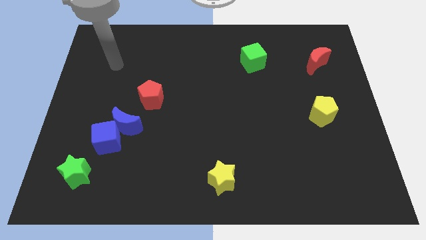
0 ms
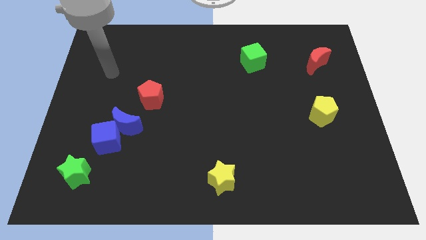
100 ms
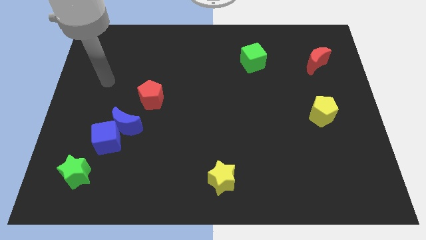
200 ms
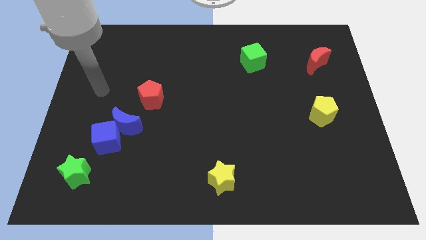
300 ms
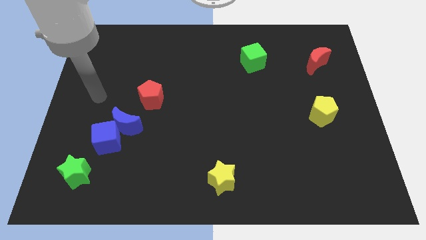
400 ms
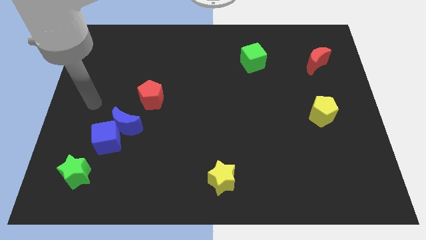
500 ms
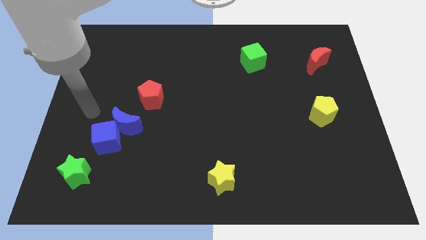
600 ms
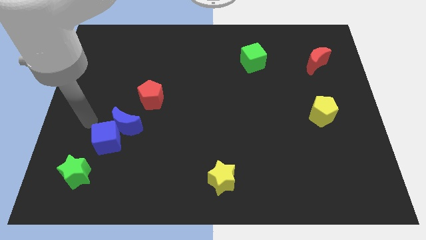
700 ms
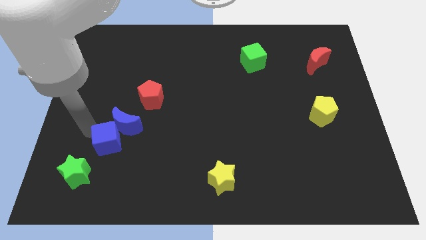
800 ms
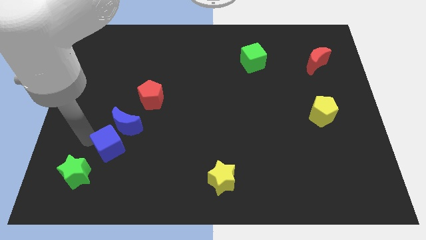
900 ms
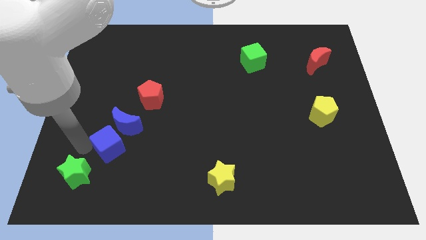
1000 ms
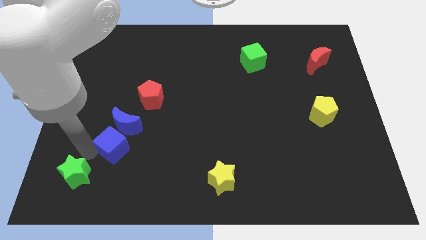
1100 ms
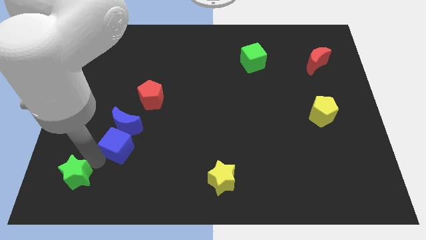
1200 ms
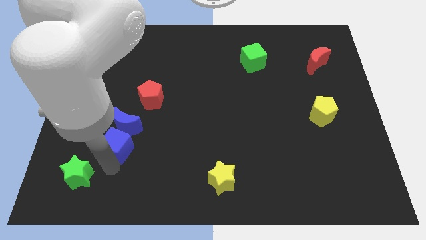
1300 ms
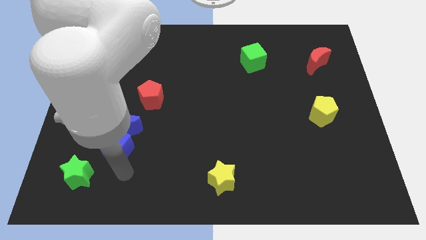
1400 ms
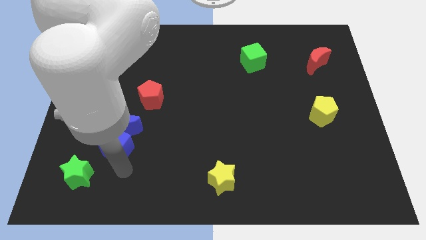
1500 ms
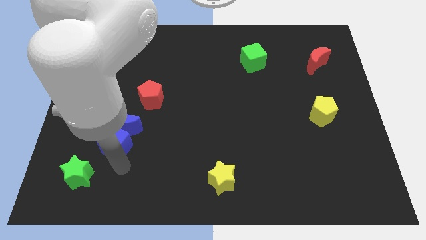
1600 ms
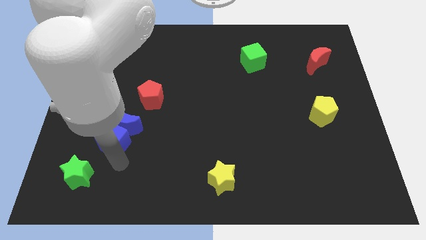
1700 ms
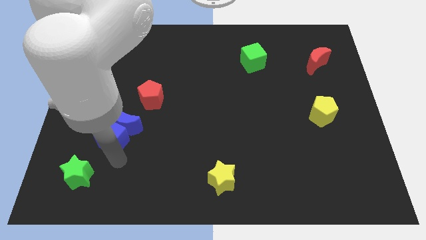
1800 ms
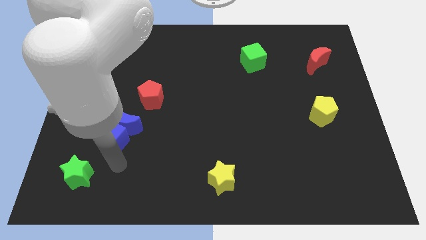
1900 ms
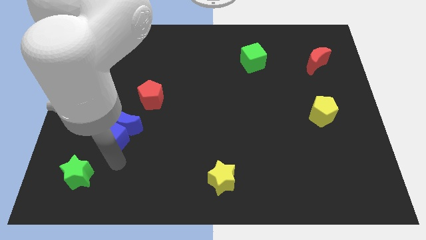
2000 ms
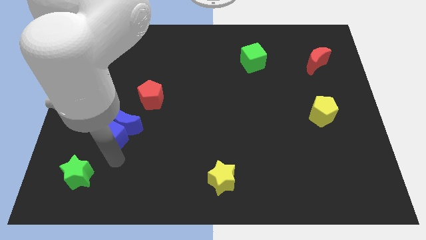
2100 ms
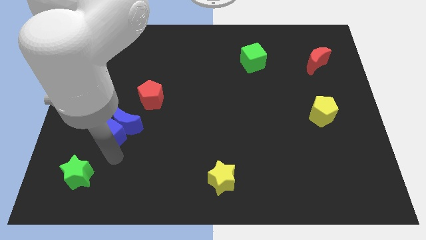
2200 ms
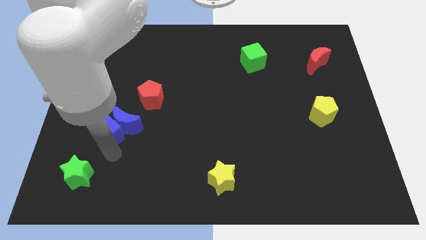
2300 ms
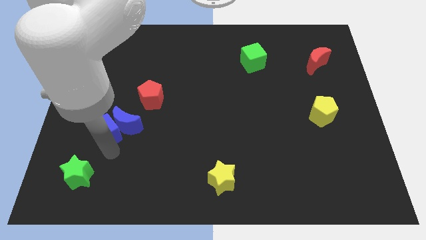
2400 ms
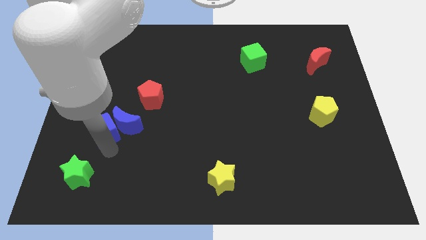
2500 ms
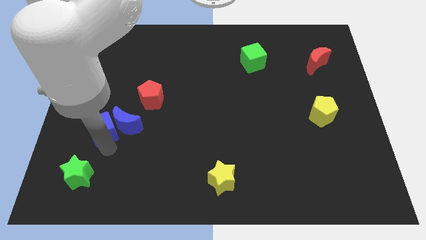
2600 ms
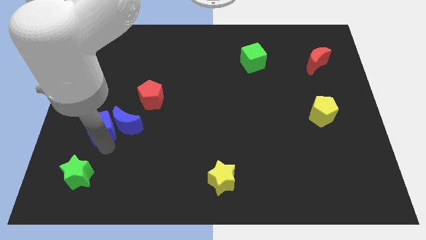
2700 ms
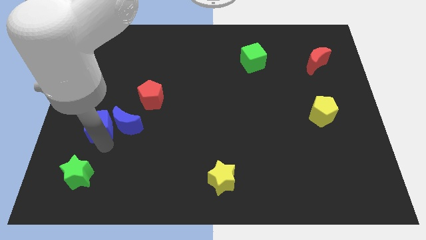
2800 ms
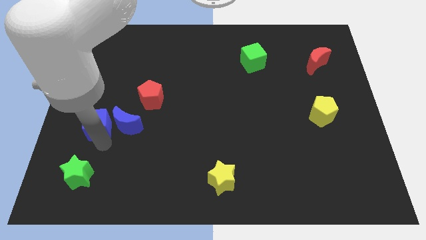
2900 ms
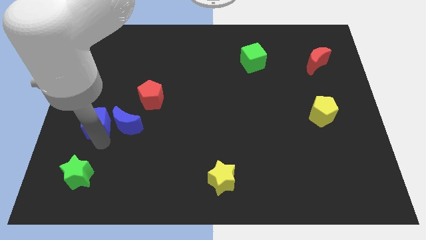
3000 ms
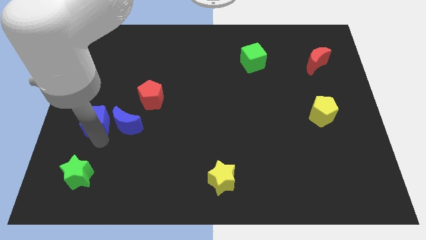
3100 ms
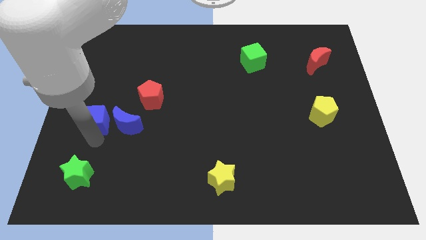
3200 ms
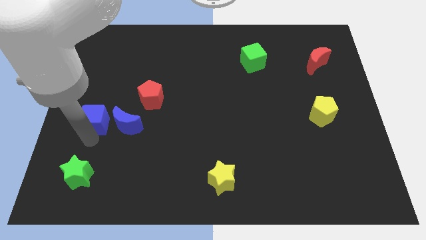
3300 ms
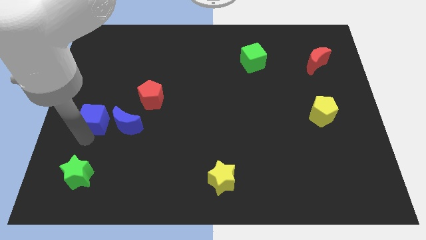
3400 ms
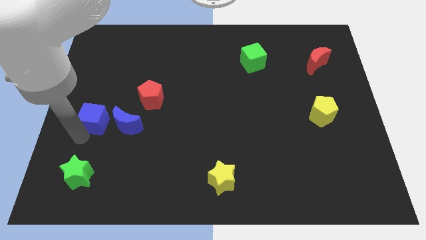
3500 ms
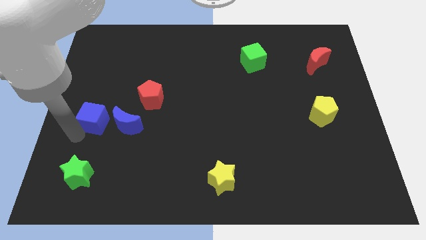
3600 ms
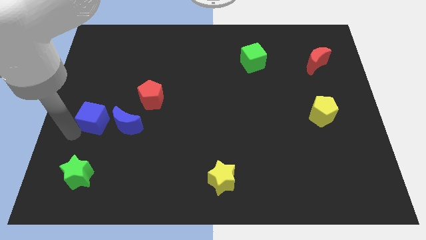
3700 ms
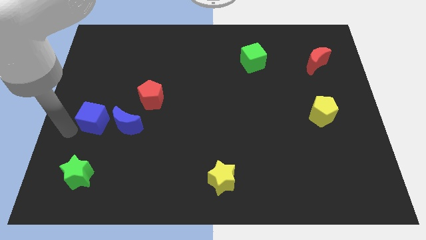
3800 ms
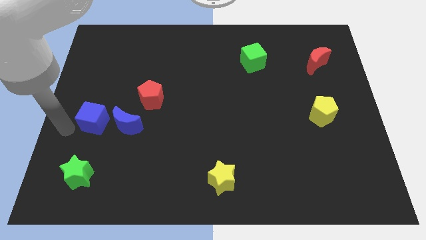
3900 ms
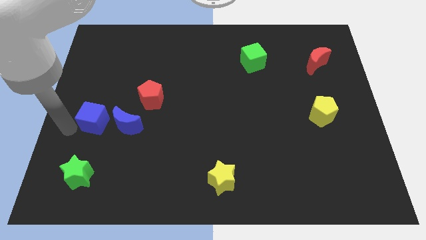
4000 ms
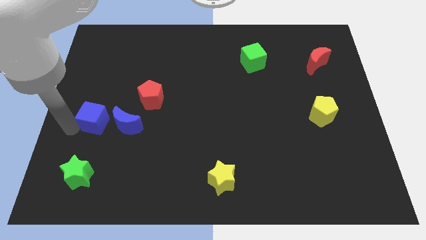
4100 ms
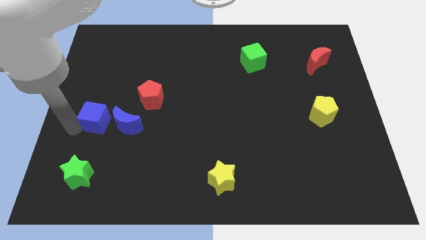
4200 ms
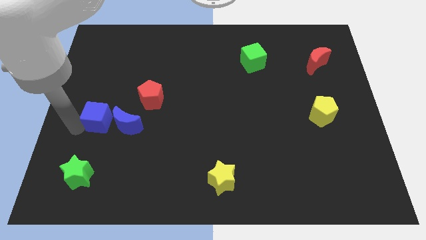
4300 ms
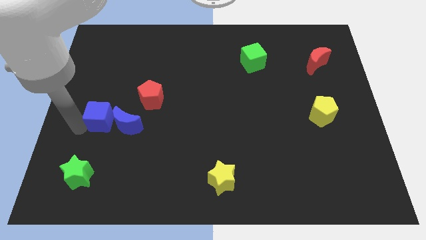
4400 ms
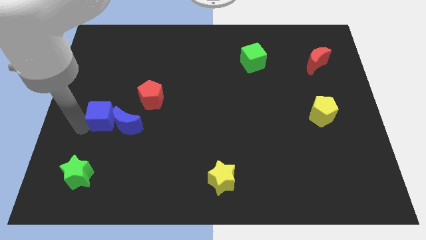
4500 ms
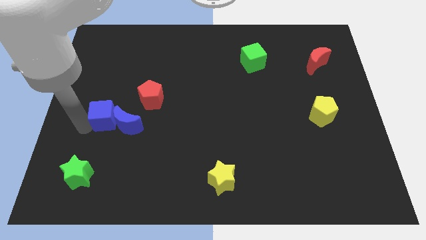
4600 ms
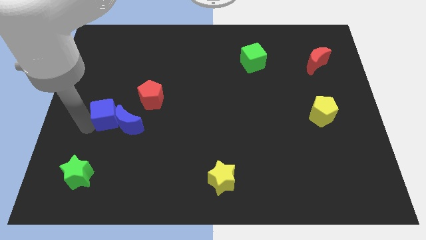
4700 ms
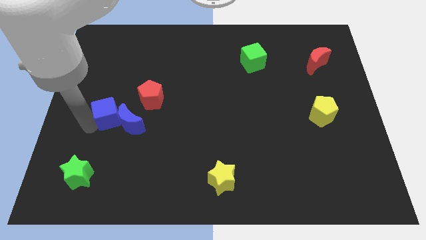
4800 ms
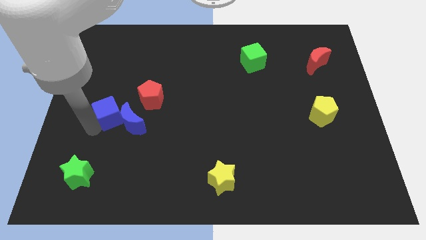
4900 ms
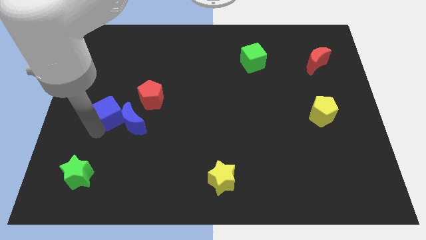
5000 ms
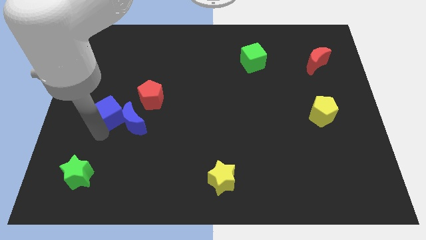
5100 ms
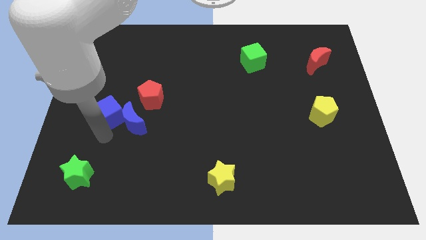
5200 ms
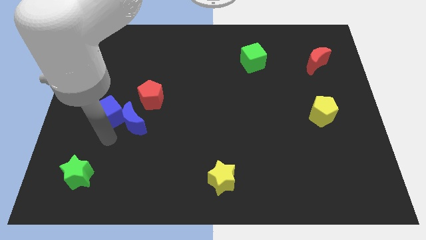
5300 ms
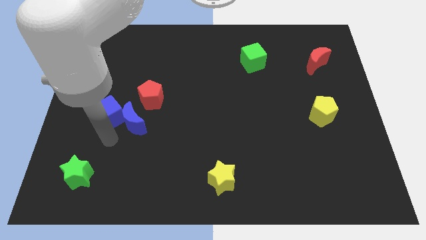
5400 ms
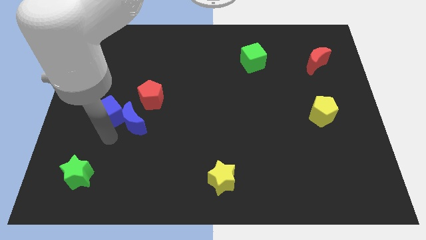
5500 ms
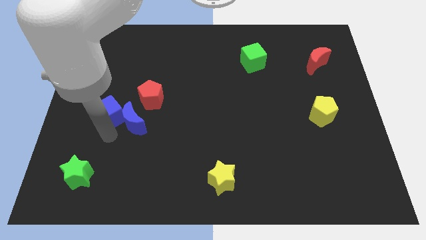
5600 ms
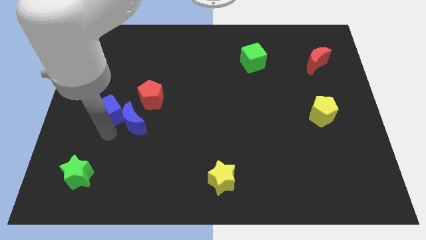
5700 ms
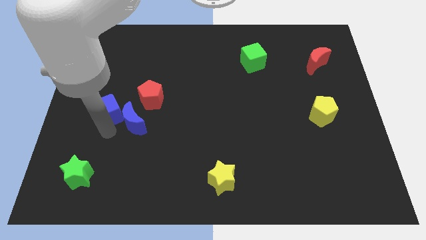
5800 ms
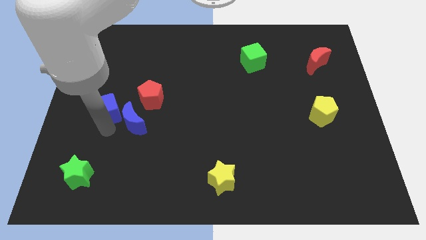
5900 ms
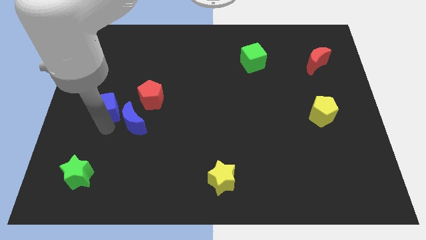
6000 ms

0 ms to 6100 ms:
separate the blue cube from the blue moon and green star

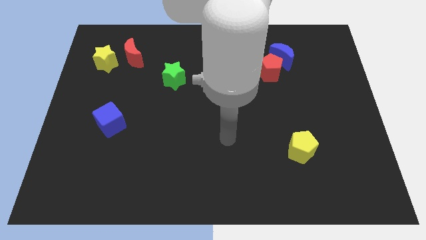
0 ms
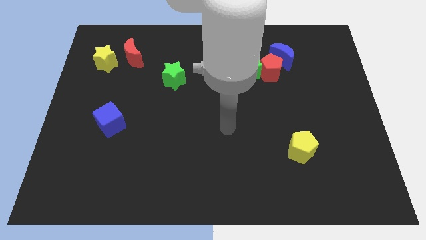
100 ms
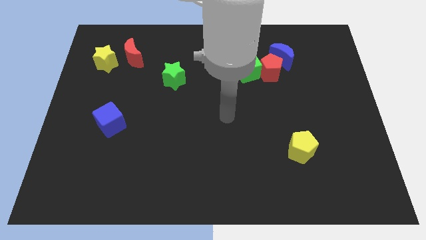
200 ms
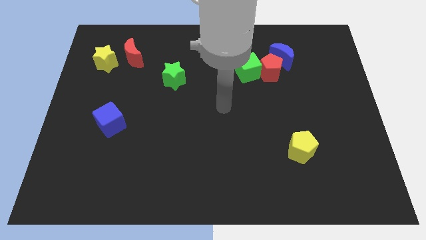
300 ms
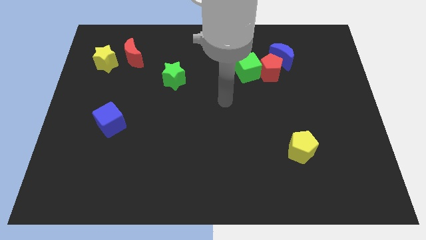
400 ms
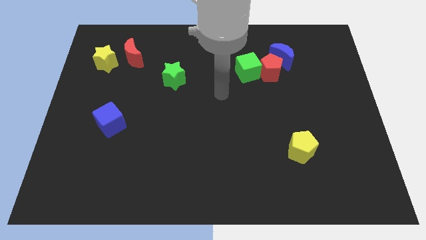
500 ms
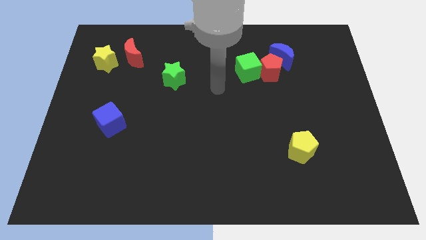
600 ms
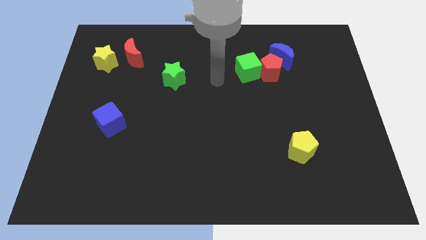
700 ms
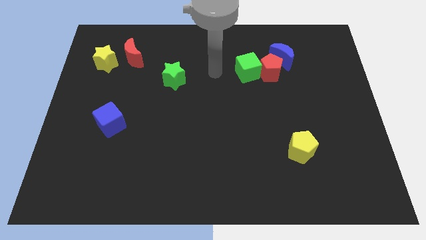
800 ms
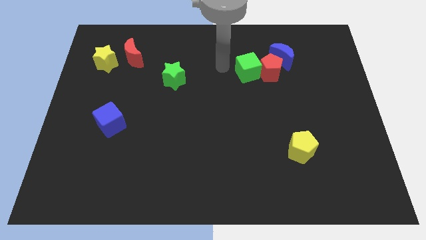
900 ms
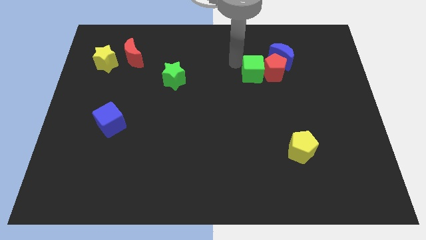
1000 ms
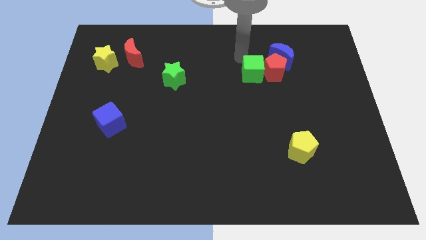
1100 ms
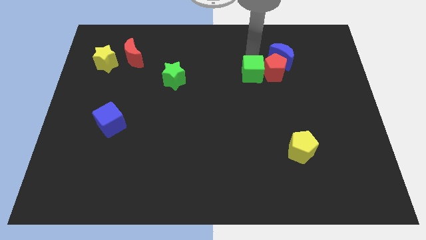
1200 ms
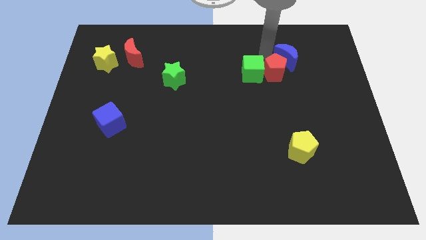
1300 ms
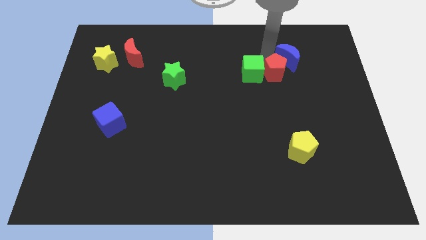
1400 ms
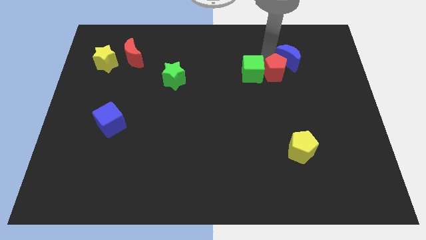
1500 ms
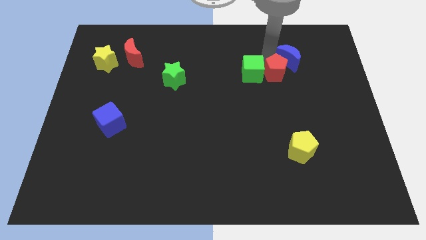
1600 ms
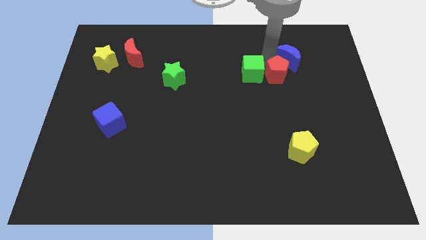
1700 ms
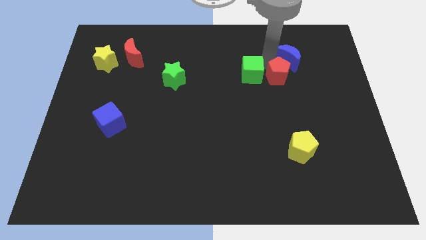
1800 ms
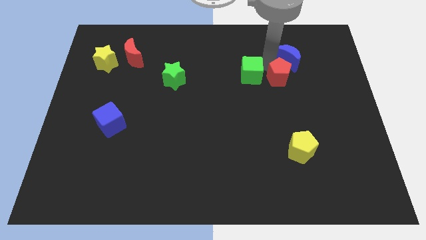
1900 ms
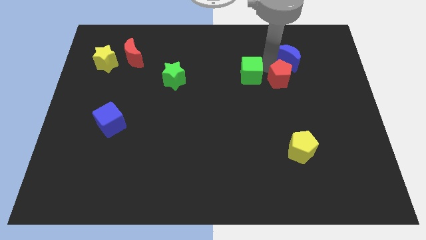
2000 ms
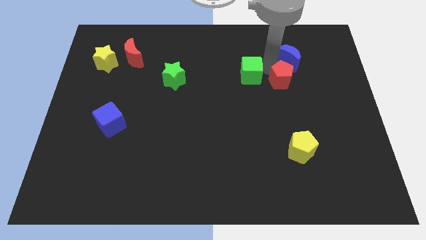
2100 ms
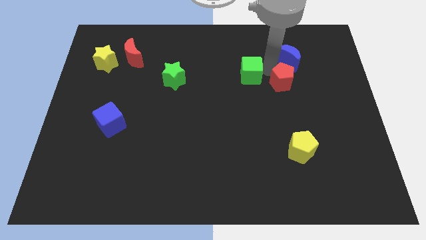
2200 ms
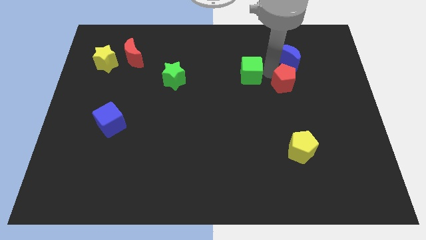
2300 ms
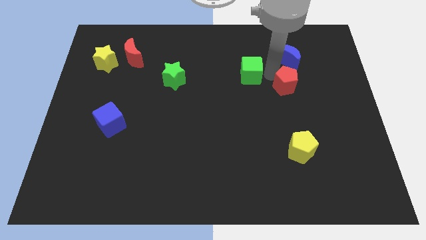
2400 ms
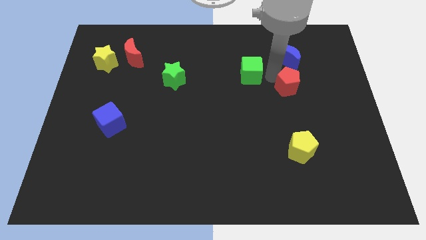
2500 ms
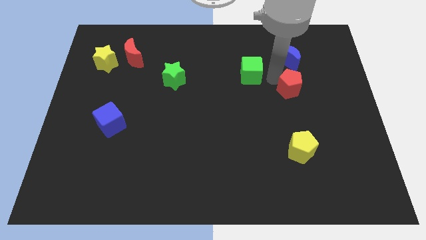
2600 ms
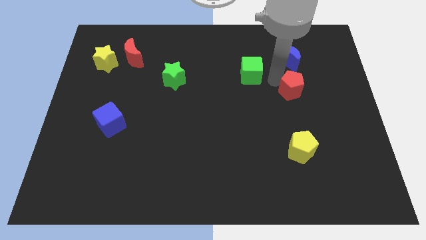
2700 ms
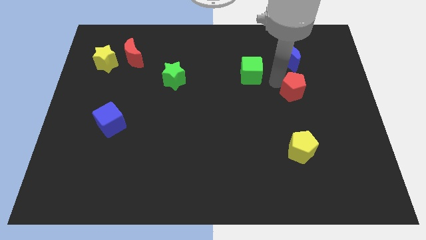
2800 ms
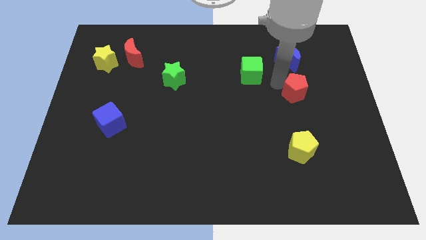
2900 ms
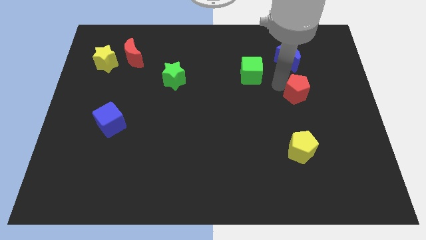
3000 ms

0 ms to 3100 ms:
separate the red pentagon from the blue moon and green cube
